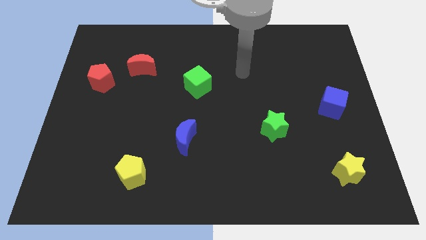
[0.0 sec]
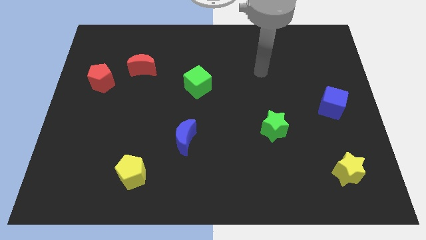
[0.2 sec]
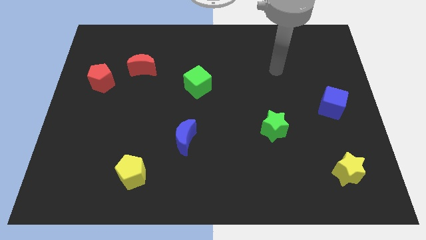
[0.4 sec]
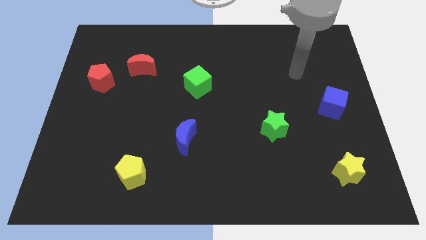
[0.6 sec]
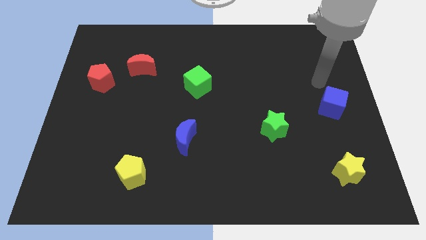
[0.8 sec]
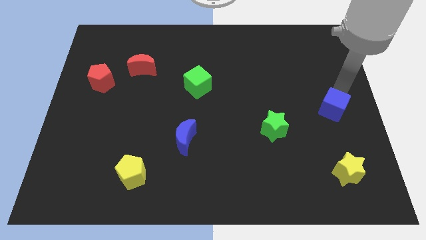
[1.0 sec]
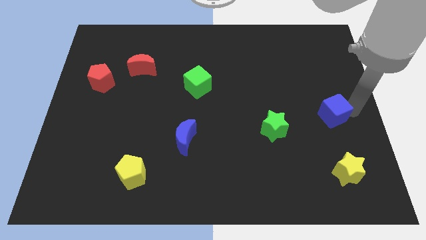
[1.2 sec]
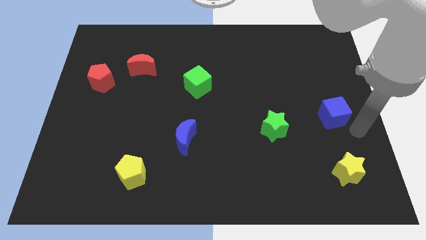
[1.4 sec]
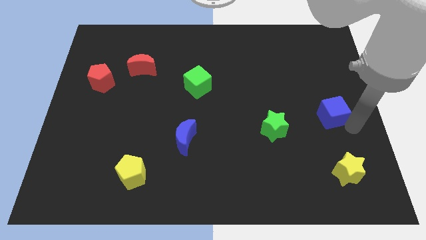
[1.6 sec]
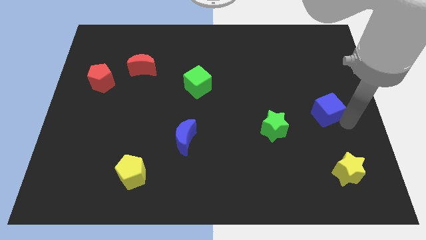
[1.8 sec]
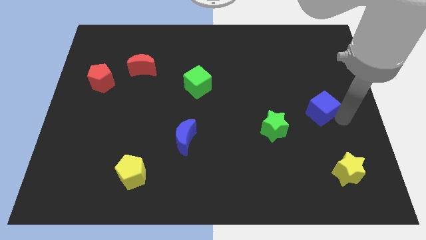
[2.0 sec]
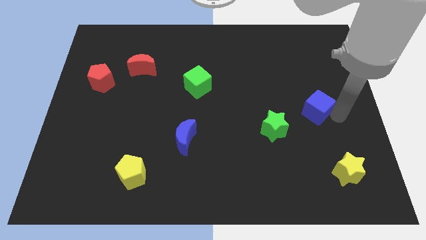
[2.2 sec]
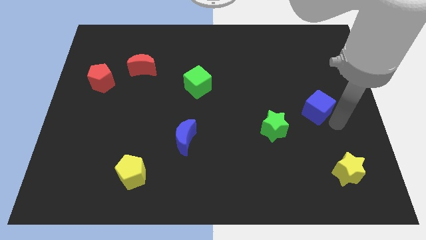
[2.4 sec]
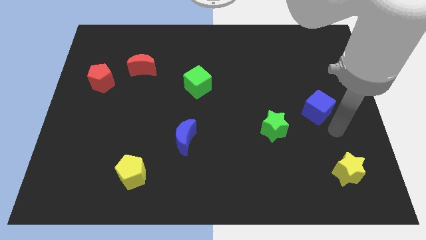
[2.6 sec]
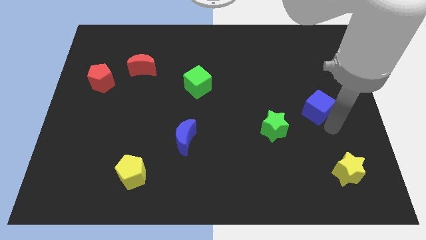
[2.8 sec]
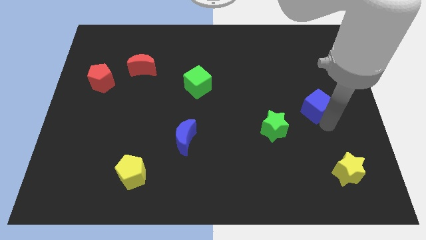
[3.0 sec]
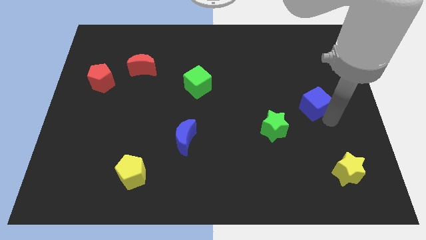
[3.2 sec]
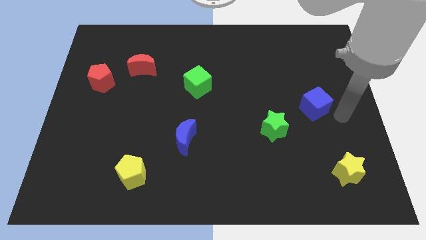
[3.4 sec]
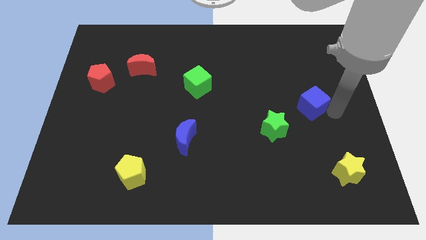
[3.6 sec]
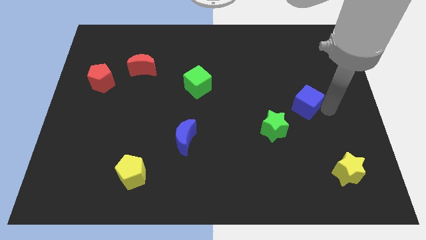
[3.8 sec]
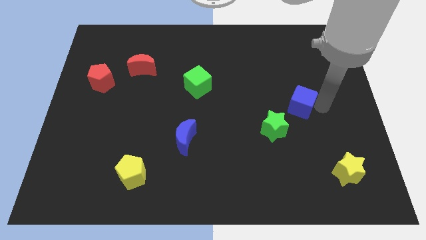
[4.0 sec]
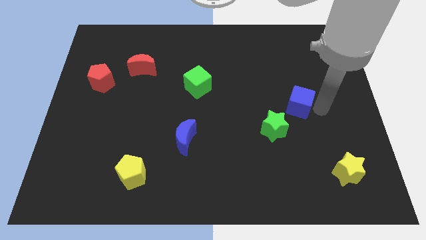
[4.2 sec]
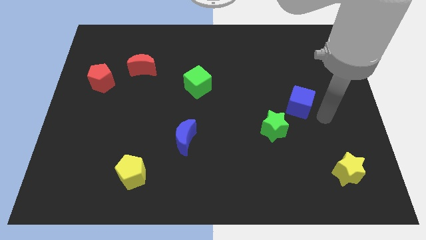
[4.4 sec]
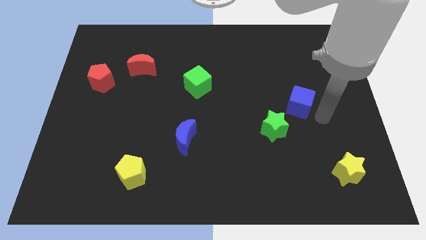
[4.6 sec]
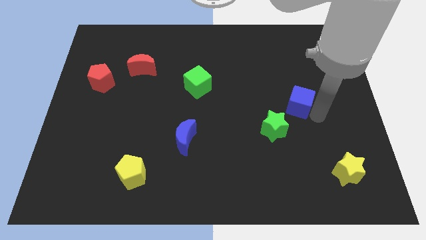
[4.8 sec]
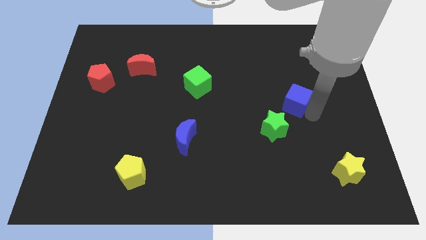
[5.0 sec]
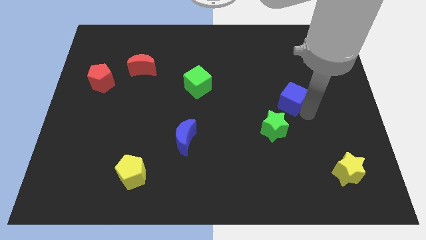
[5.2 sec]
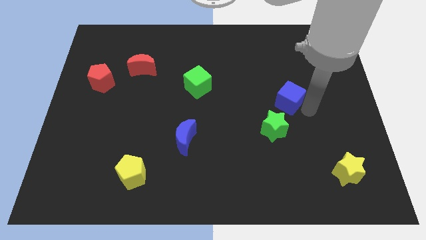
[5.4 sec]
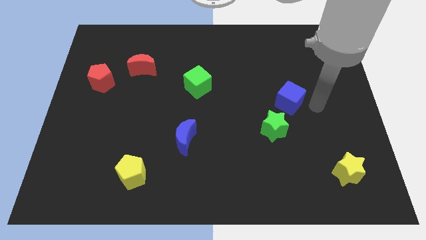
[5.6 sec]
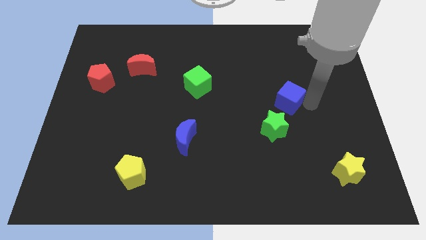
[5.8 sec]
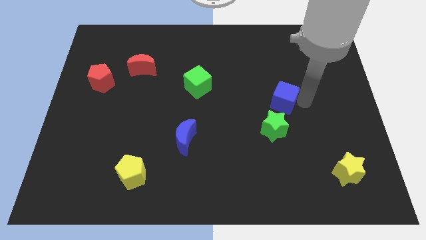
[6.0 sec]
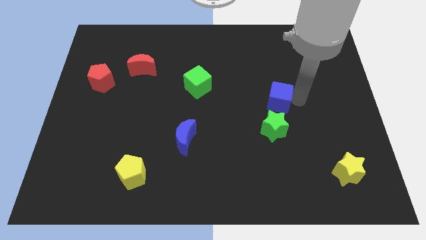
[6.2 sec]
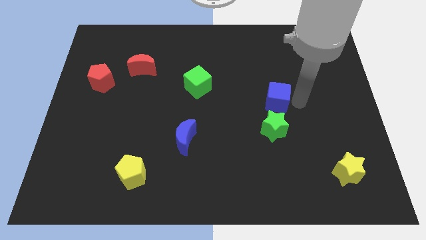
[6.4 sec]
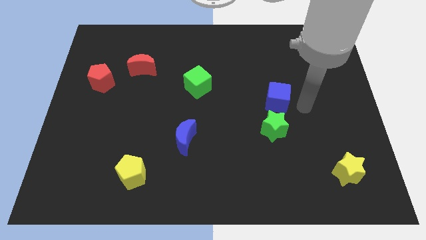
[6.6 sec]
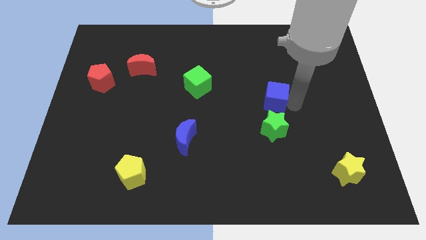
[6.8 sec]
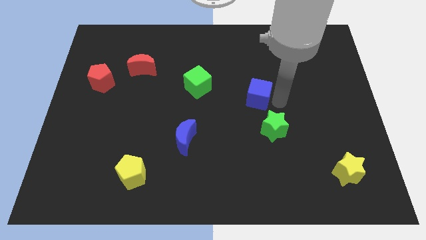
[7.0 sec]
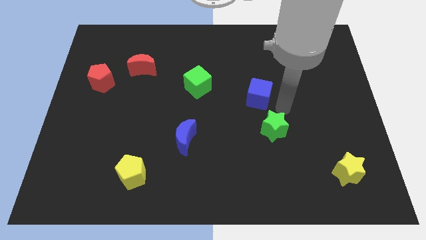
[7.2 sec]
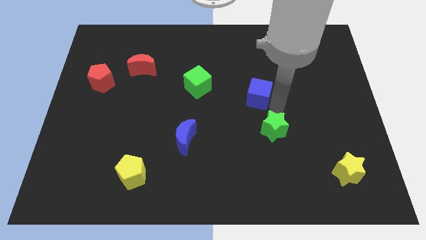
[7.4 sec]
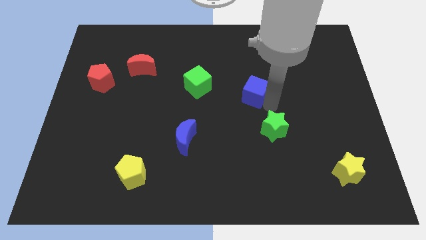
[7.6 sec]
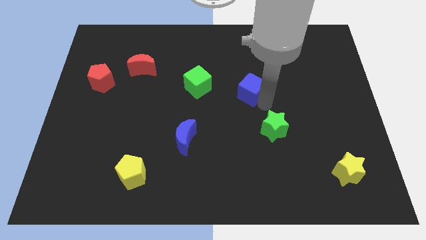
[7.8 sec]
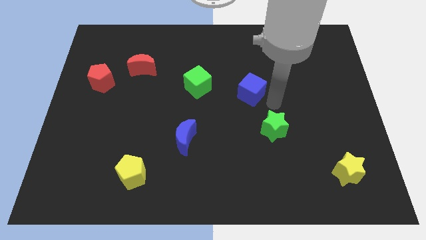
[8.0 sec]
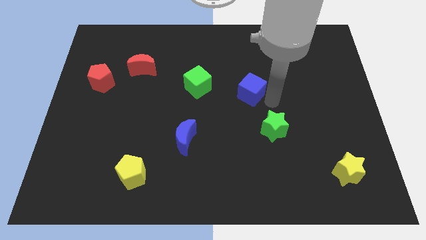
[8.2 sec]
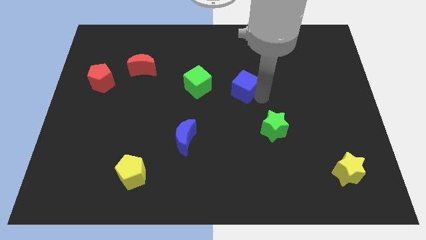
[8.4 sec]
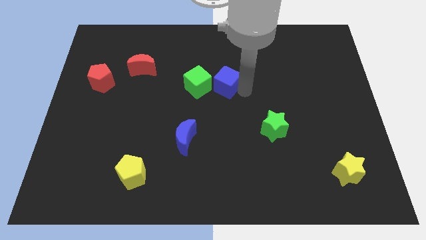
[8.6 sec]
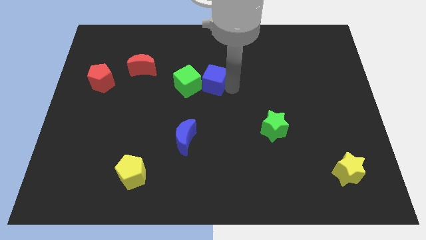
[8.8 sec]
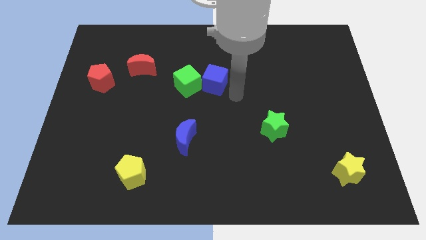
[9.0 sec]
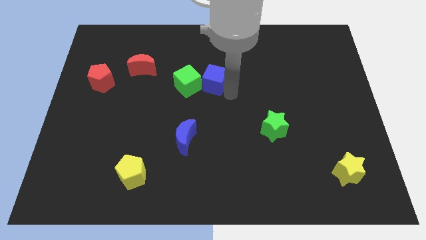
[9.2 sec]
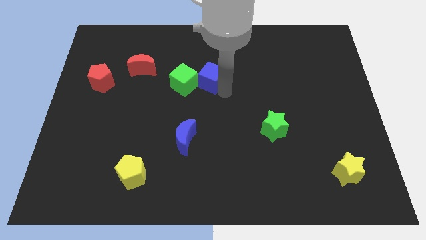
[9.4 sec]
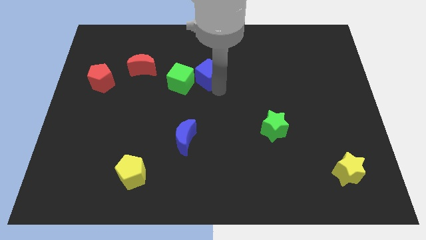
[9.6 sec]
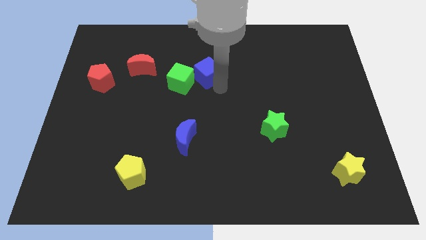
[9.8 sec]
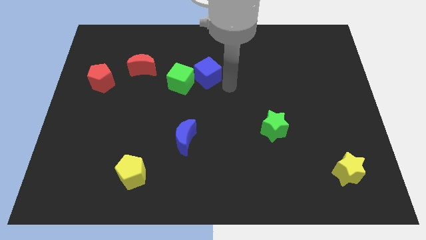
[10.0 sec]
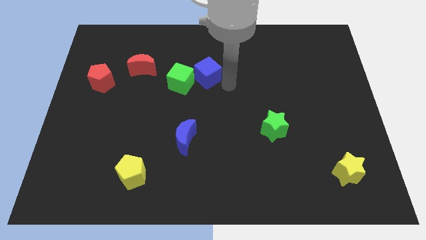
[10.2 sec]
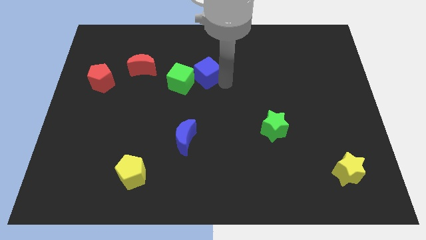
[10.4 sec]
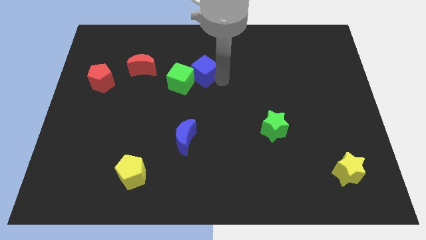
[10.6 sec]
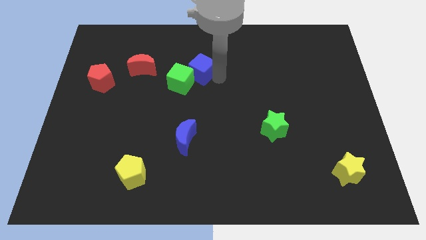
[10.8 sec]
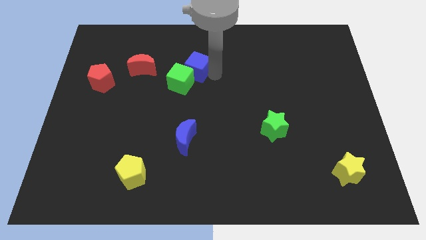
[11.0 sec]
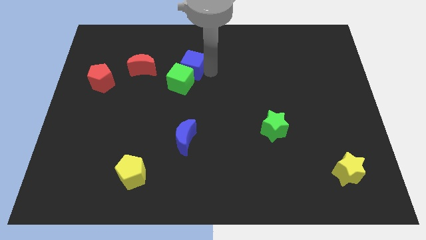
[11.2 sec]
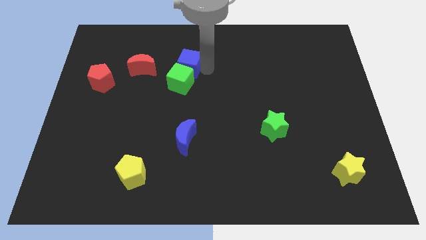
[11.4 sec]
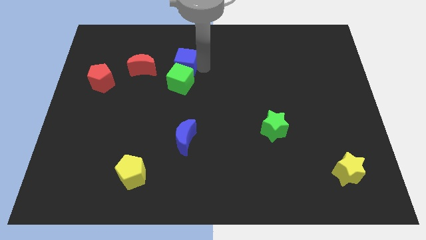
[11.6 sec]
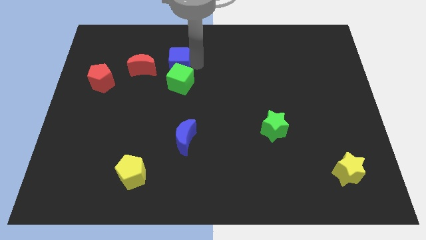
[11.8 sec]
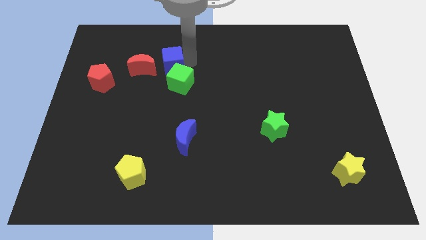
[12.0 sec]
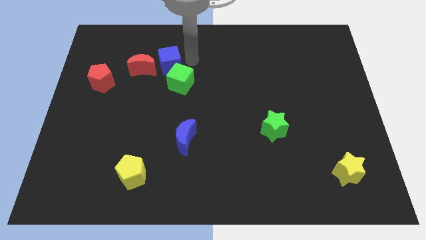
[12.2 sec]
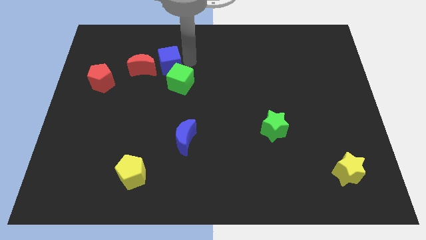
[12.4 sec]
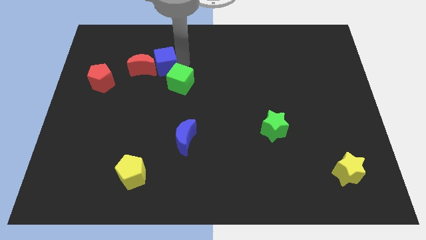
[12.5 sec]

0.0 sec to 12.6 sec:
move the blue cube to the red moon

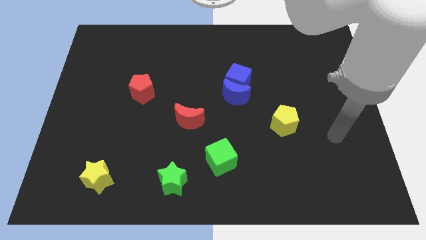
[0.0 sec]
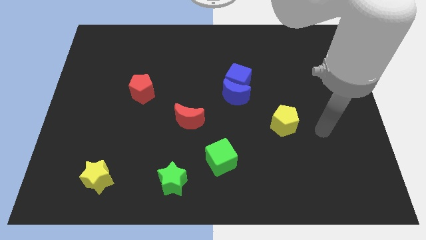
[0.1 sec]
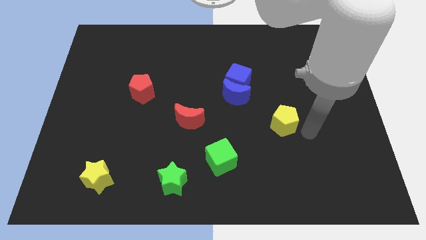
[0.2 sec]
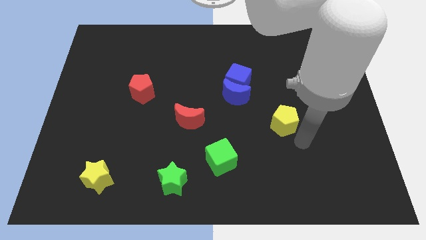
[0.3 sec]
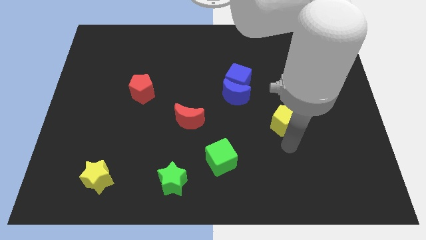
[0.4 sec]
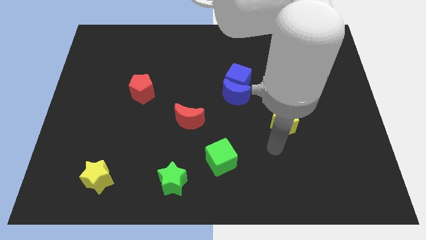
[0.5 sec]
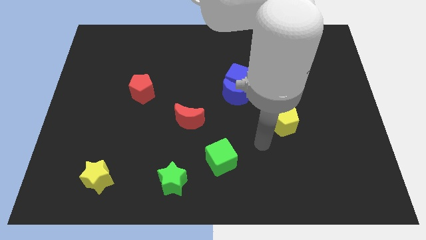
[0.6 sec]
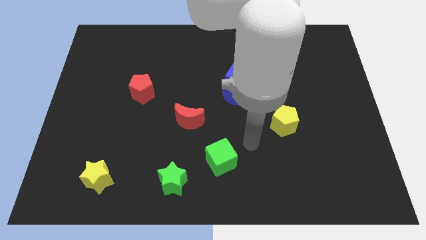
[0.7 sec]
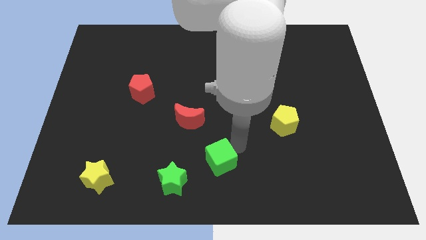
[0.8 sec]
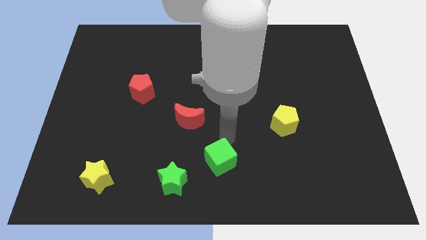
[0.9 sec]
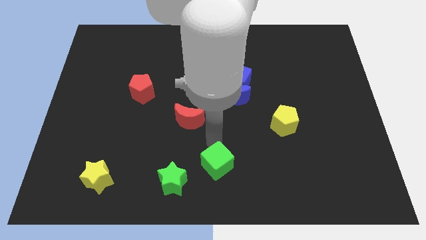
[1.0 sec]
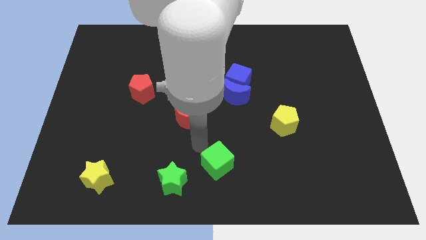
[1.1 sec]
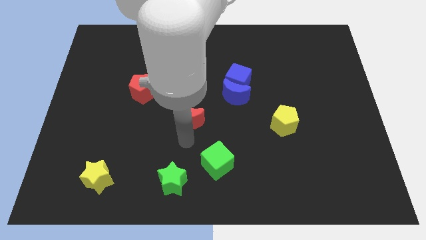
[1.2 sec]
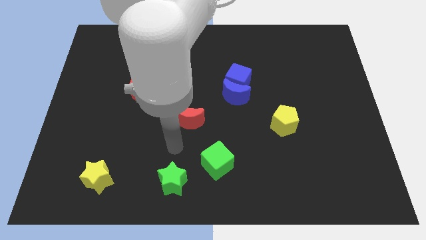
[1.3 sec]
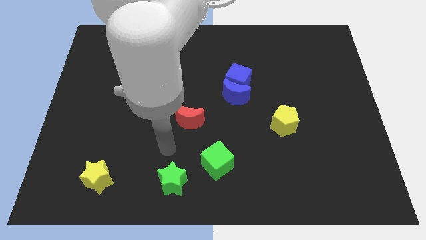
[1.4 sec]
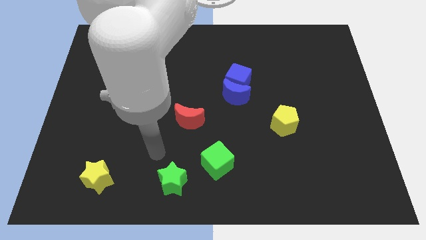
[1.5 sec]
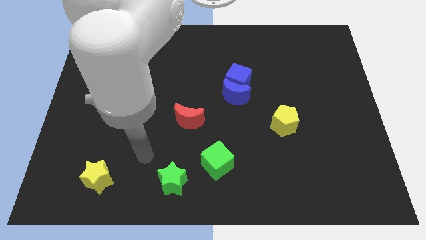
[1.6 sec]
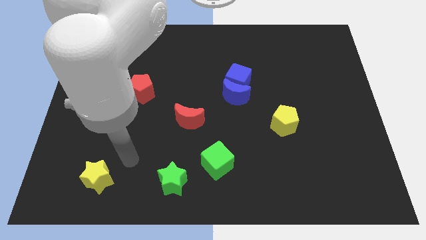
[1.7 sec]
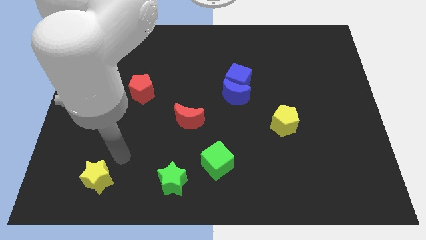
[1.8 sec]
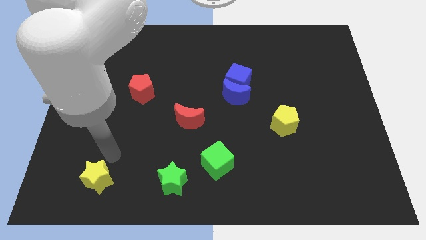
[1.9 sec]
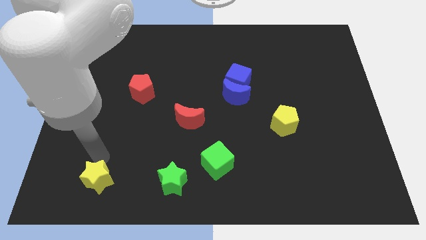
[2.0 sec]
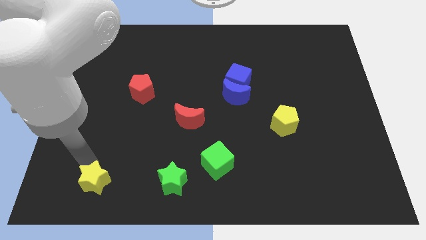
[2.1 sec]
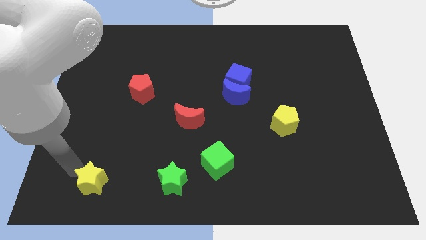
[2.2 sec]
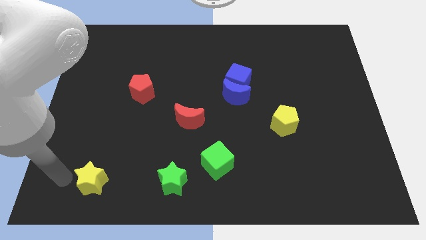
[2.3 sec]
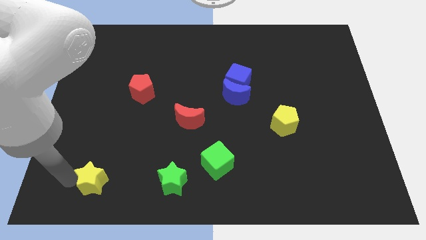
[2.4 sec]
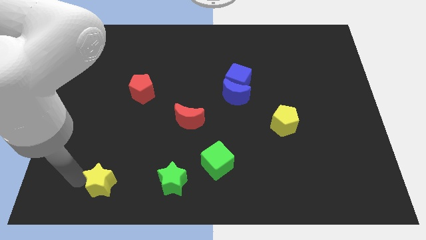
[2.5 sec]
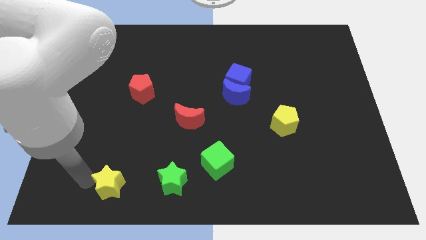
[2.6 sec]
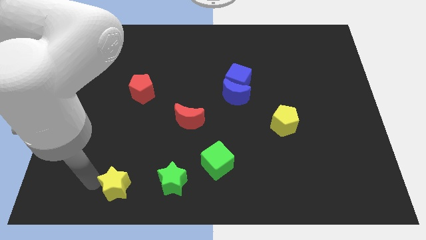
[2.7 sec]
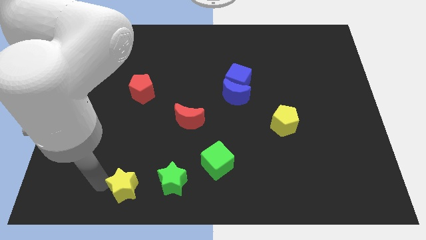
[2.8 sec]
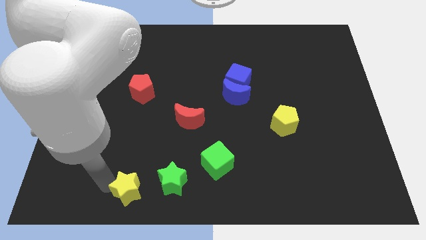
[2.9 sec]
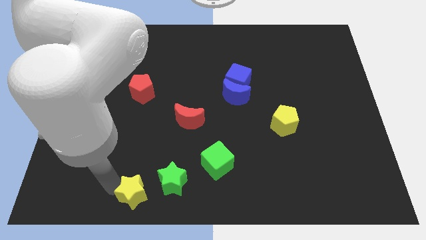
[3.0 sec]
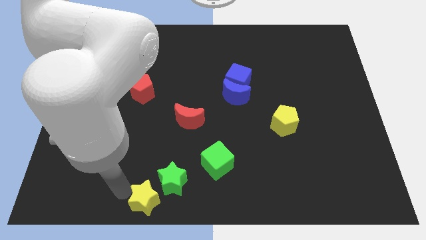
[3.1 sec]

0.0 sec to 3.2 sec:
push the yellow star close to the green star
